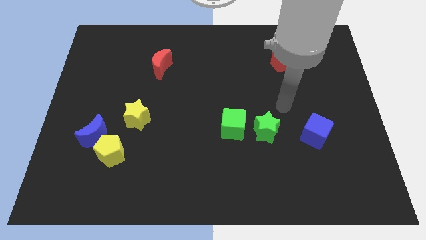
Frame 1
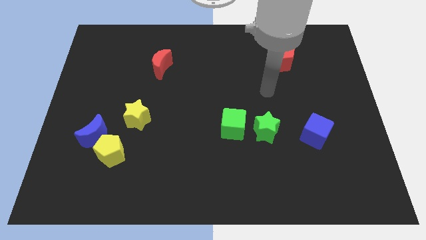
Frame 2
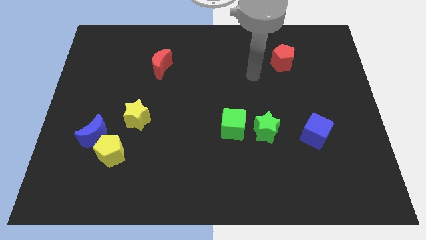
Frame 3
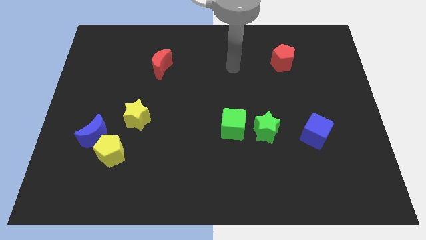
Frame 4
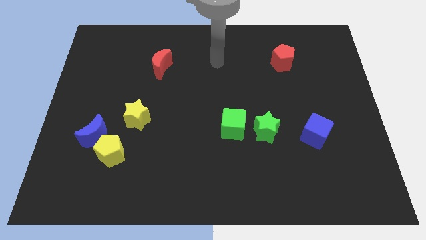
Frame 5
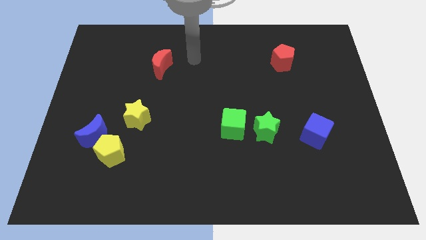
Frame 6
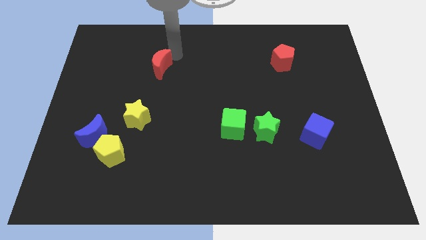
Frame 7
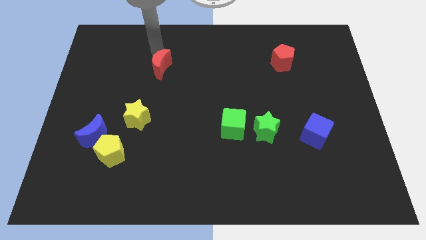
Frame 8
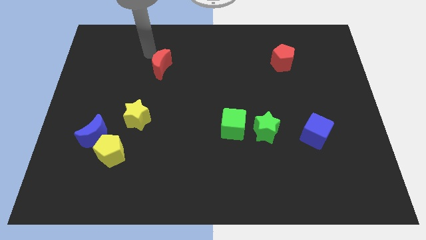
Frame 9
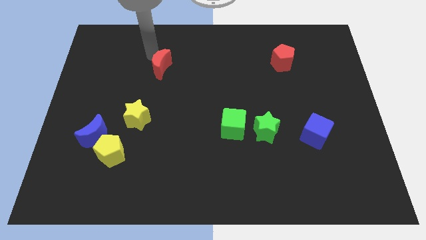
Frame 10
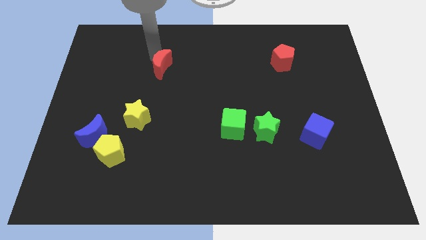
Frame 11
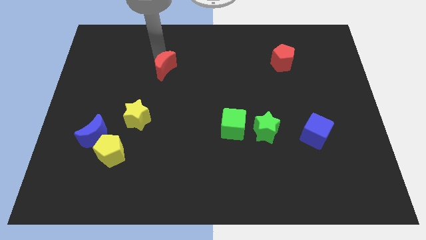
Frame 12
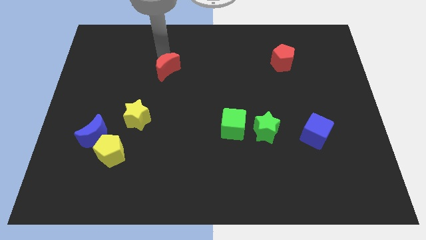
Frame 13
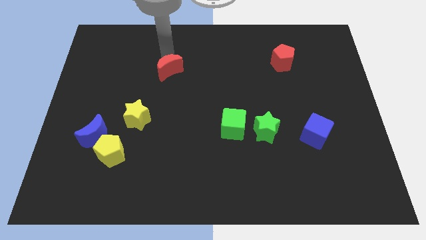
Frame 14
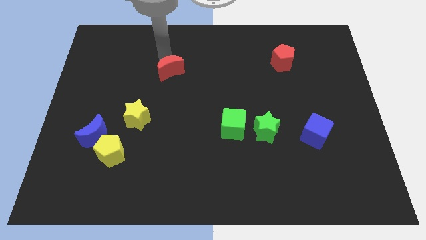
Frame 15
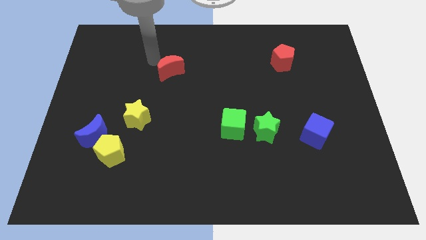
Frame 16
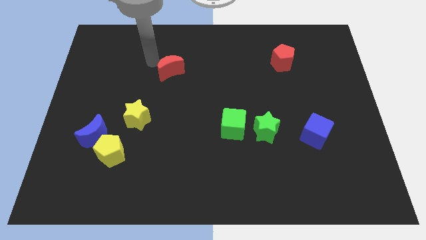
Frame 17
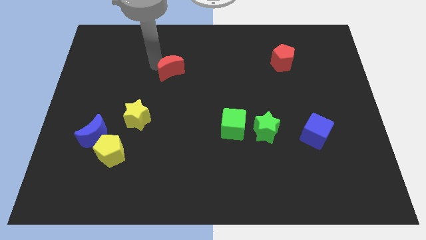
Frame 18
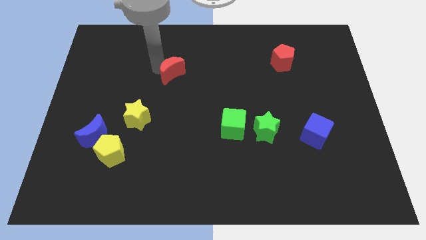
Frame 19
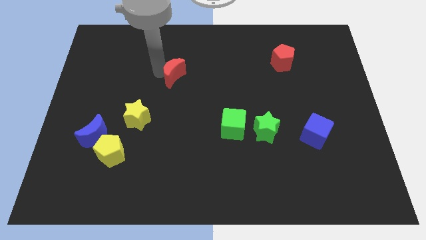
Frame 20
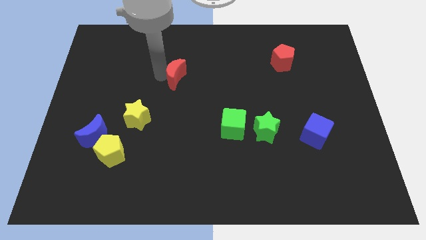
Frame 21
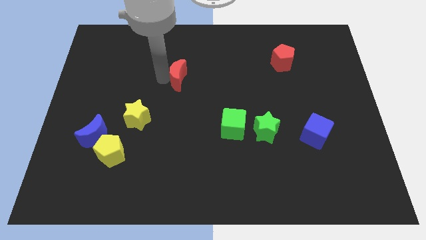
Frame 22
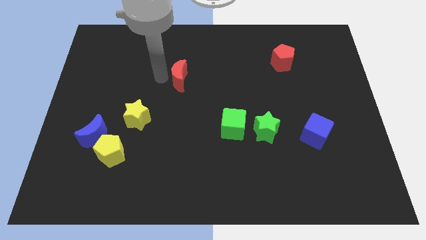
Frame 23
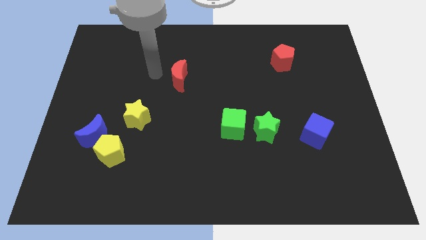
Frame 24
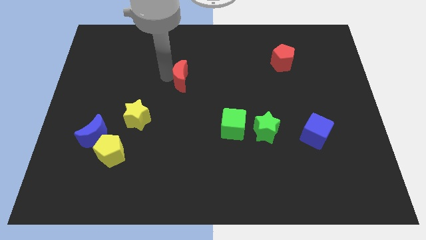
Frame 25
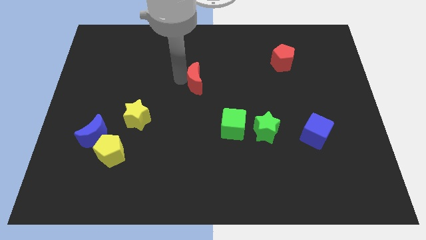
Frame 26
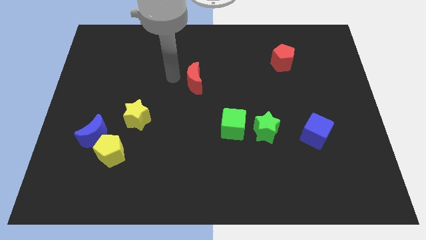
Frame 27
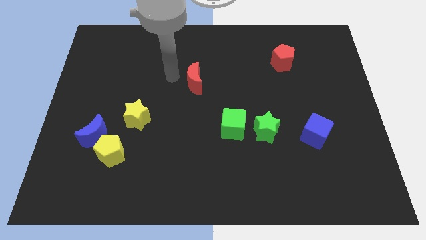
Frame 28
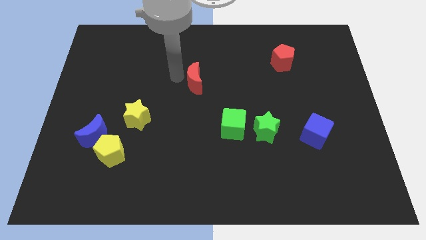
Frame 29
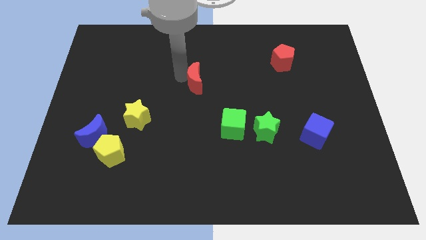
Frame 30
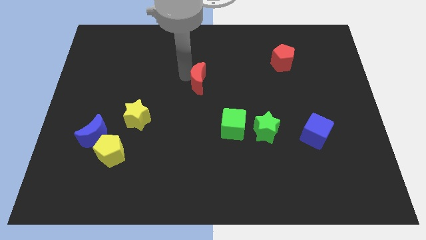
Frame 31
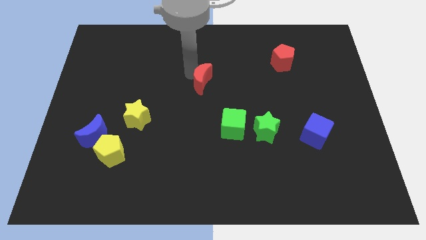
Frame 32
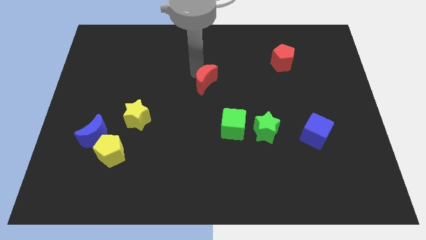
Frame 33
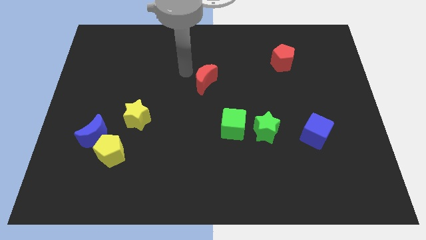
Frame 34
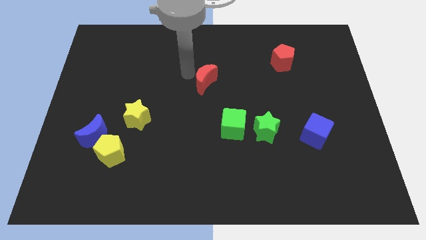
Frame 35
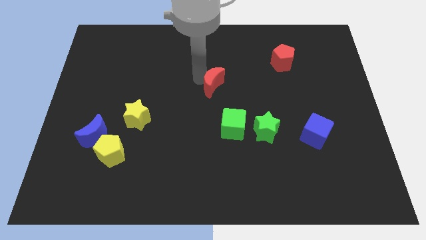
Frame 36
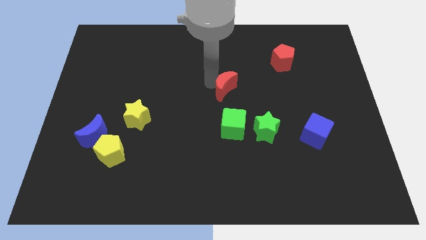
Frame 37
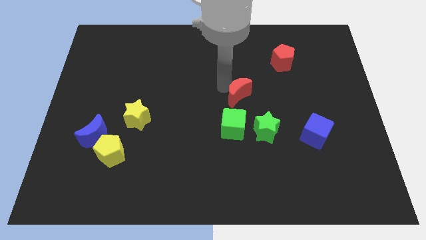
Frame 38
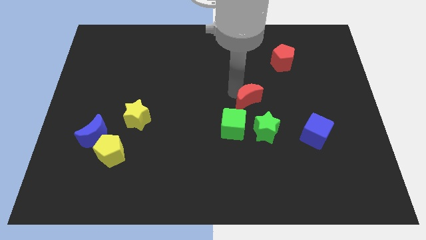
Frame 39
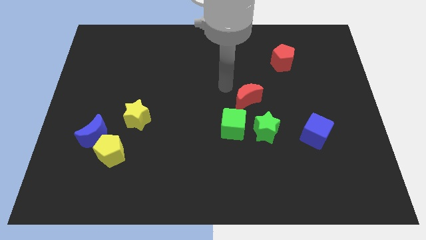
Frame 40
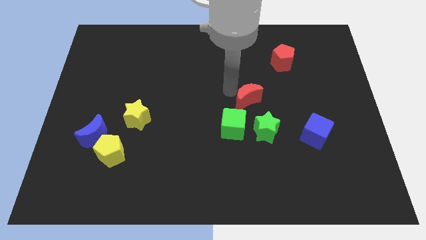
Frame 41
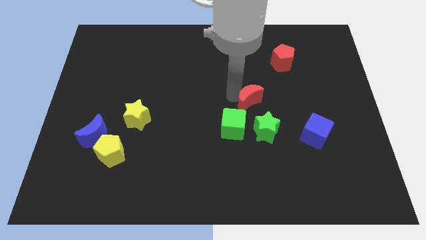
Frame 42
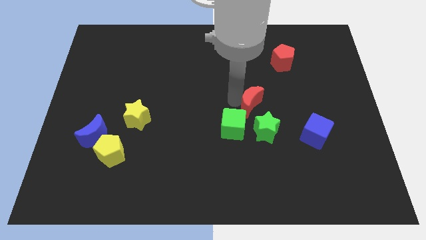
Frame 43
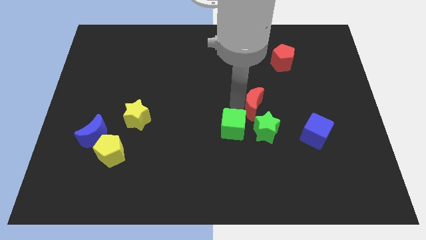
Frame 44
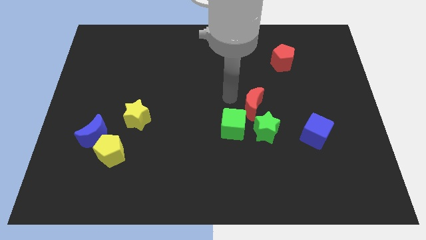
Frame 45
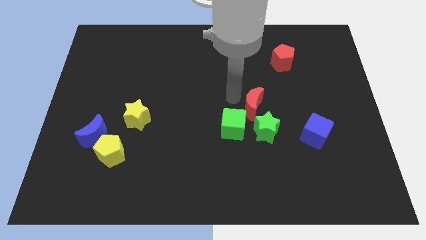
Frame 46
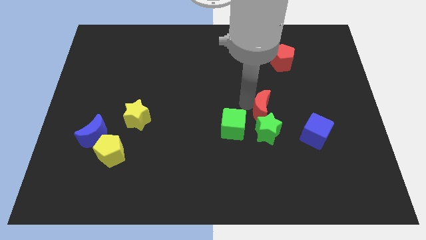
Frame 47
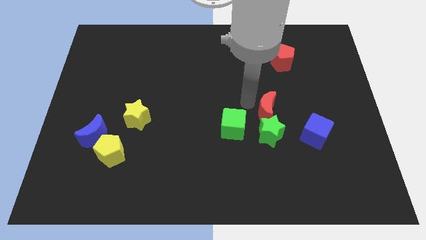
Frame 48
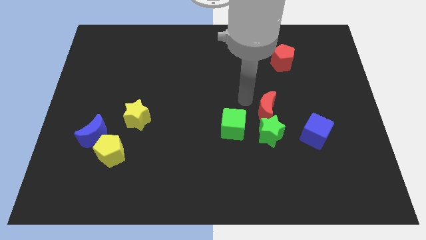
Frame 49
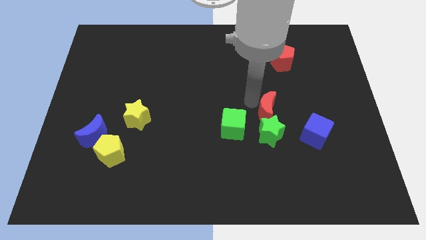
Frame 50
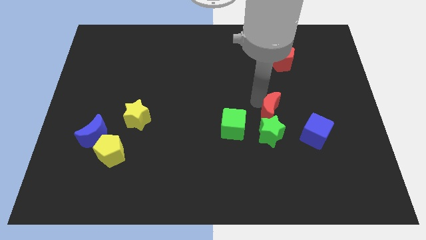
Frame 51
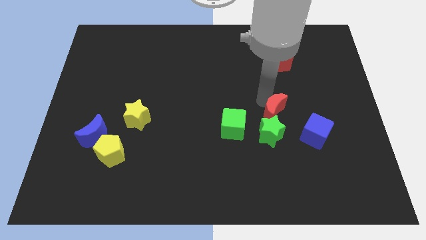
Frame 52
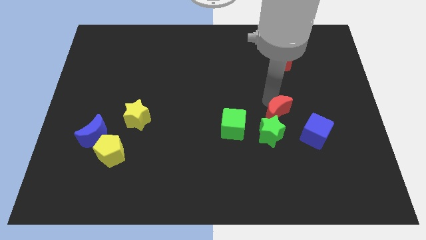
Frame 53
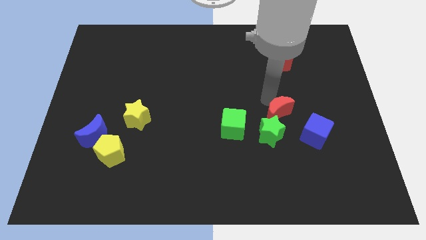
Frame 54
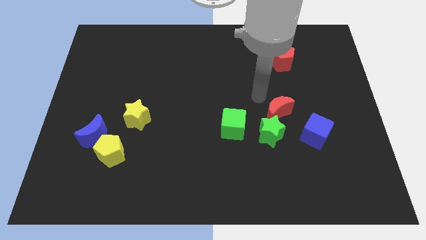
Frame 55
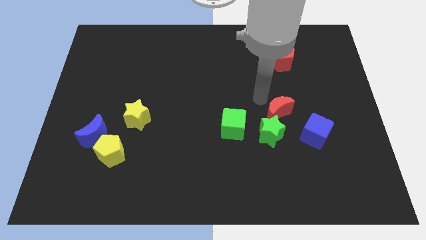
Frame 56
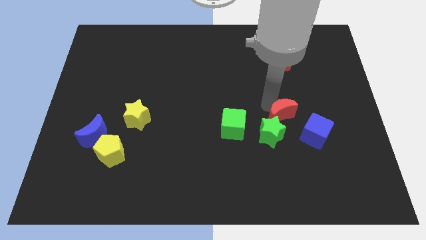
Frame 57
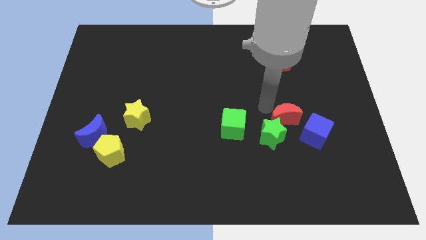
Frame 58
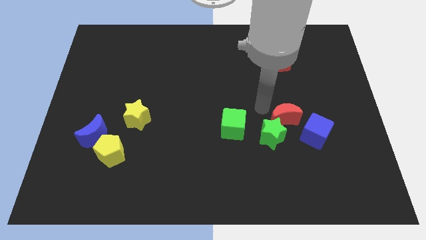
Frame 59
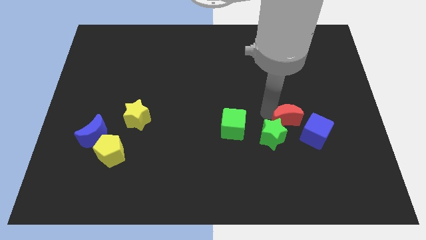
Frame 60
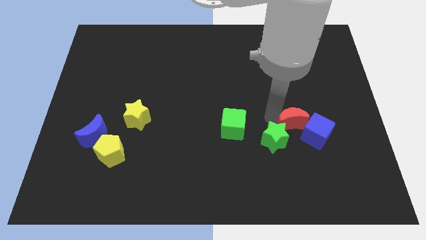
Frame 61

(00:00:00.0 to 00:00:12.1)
slide the red moon close to the blue cube

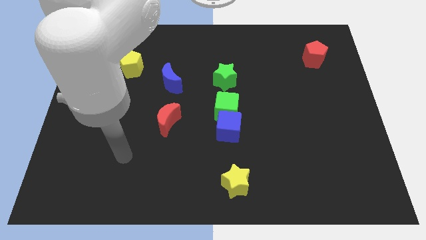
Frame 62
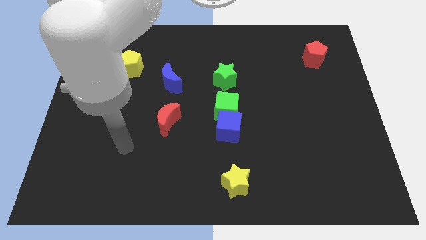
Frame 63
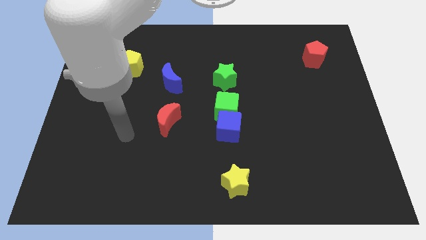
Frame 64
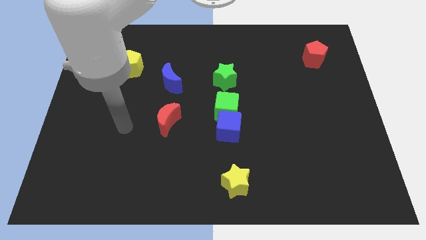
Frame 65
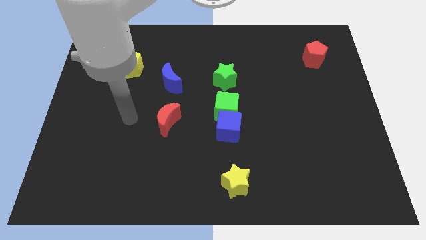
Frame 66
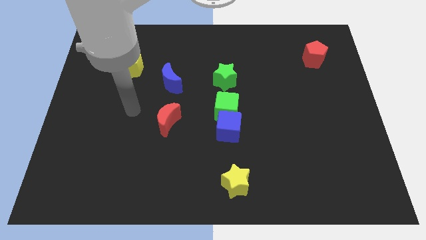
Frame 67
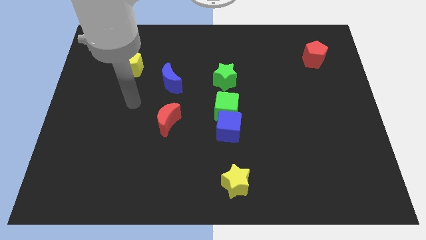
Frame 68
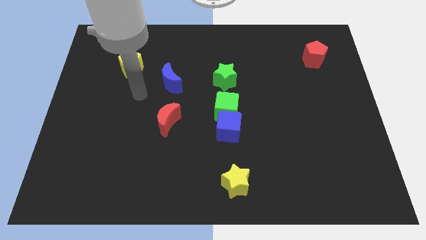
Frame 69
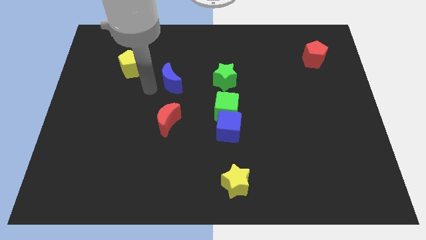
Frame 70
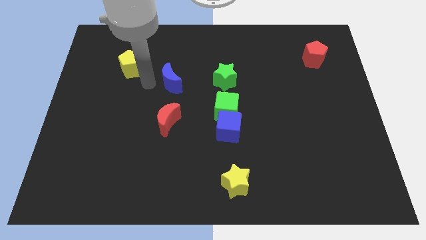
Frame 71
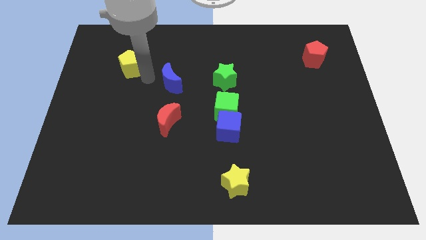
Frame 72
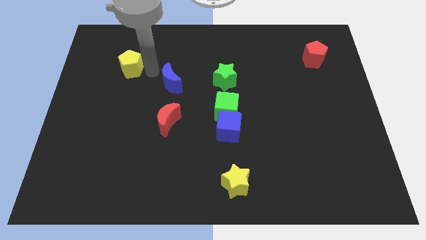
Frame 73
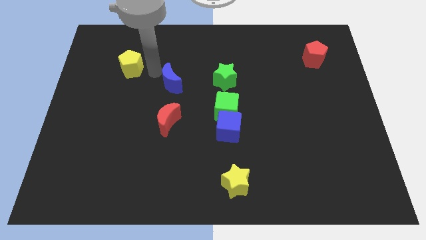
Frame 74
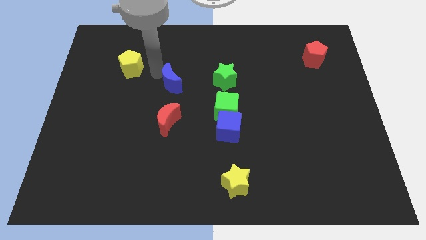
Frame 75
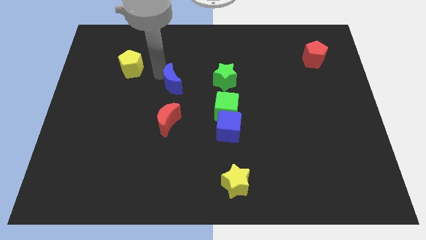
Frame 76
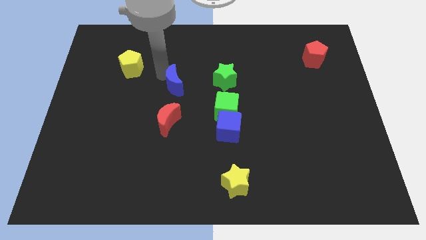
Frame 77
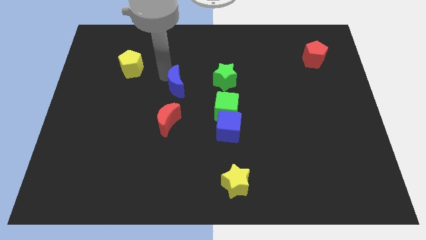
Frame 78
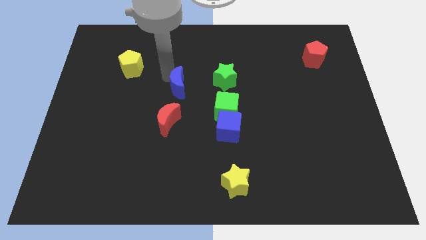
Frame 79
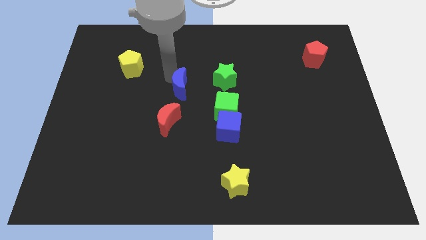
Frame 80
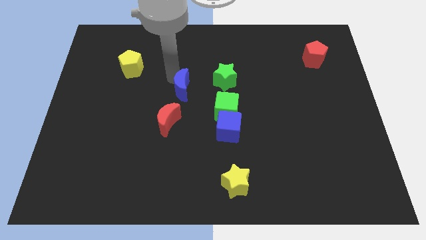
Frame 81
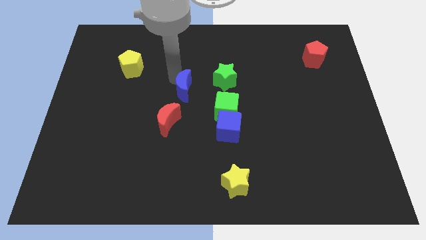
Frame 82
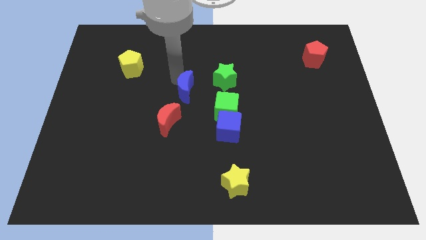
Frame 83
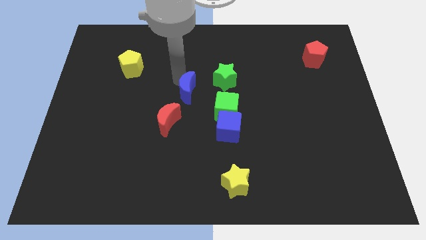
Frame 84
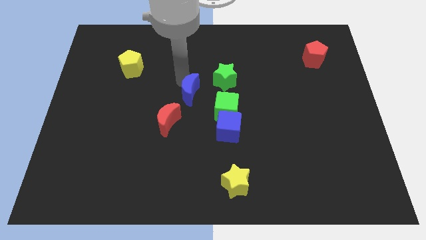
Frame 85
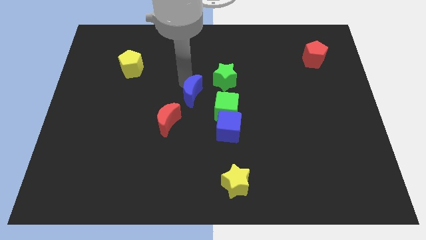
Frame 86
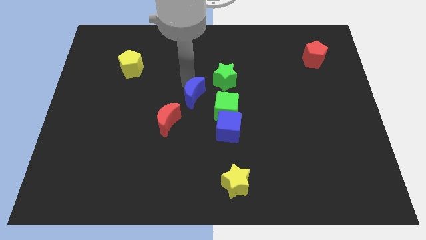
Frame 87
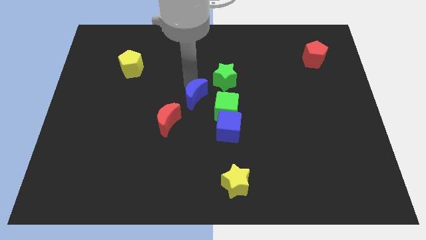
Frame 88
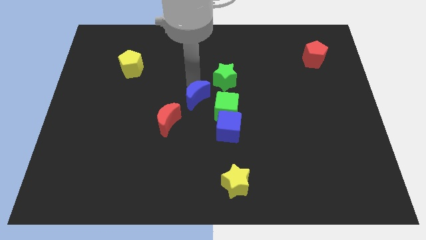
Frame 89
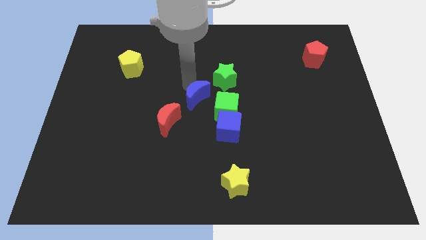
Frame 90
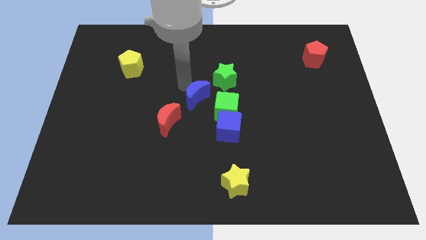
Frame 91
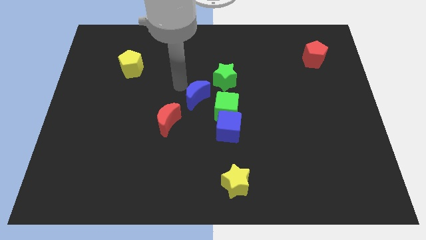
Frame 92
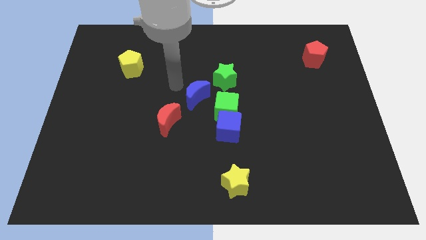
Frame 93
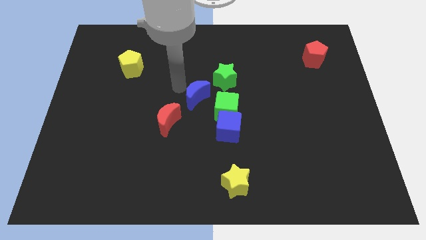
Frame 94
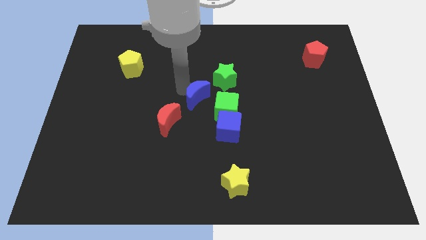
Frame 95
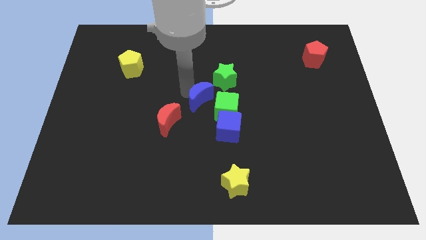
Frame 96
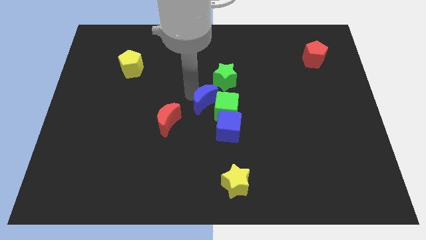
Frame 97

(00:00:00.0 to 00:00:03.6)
put the blue moon next to the green cube
